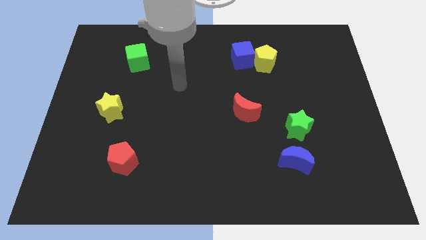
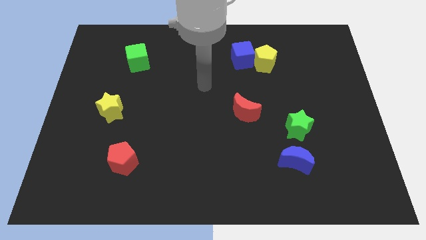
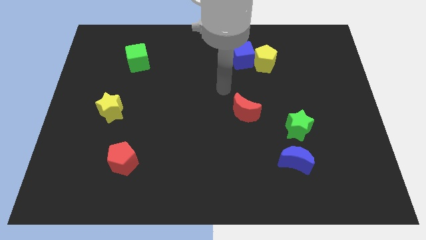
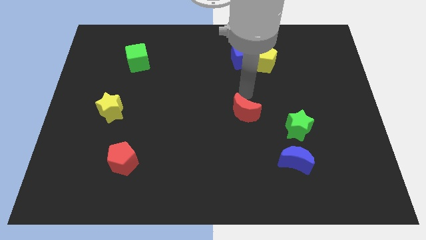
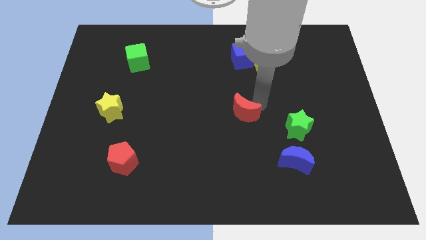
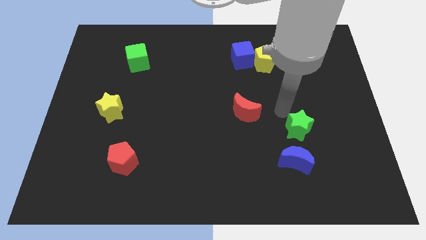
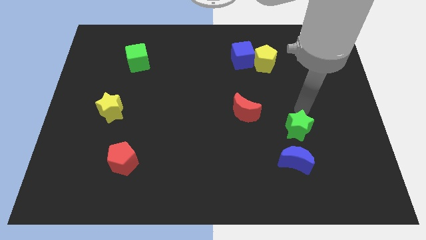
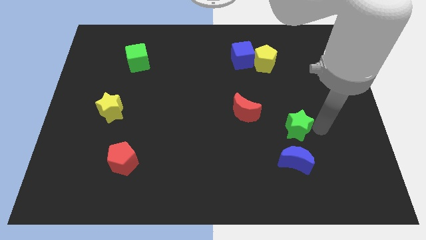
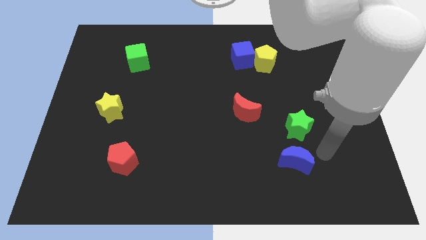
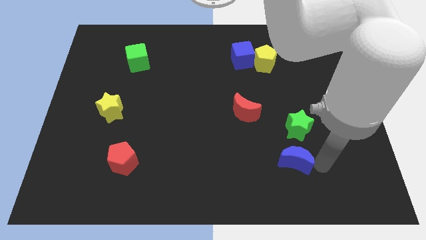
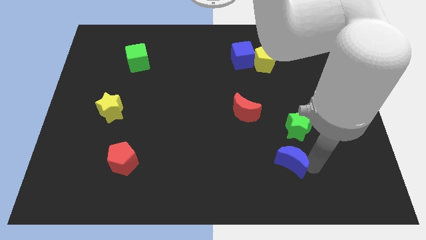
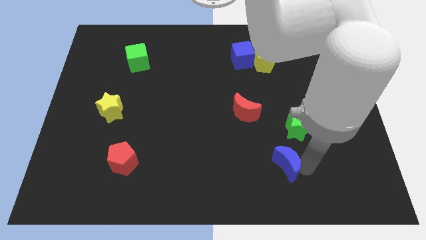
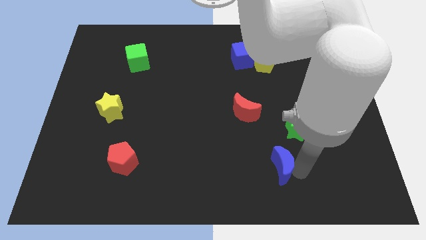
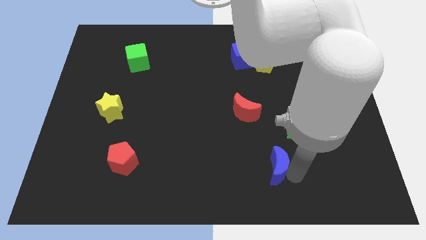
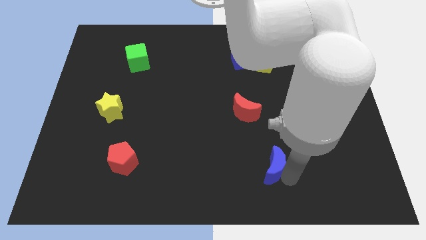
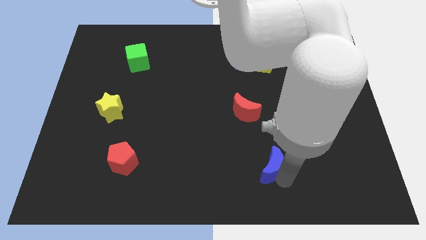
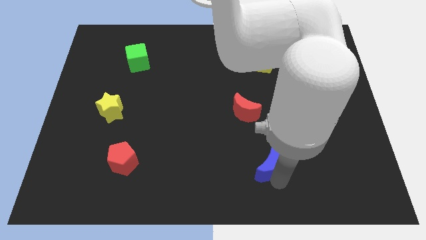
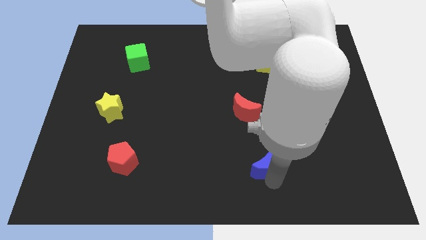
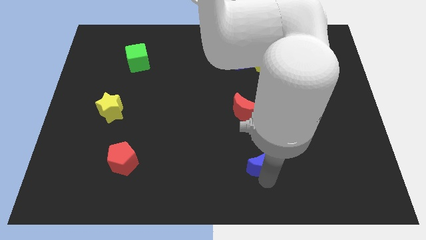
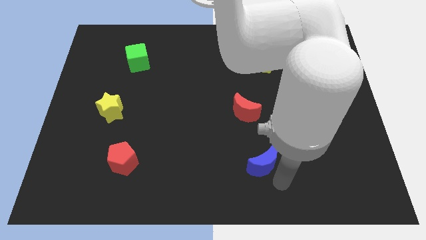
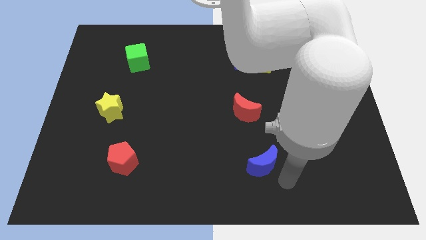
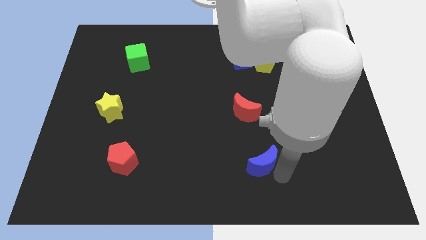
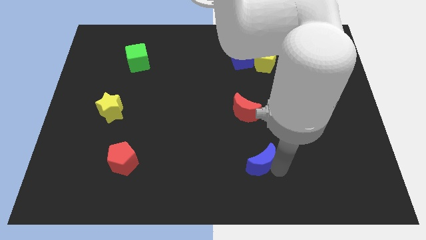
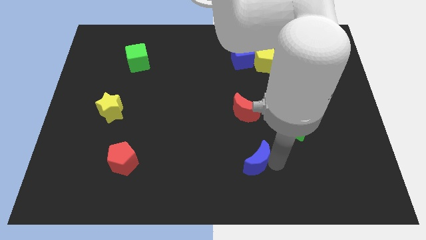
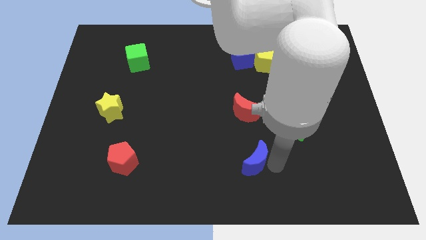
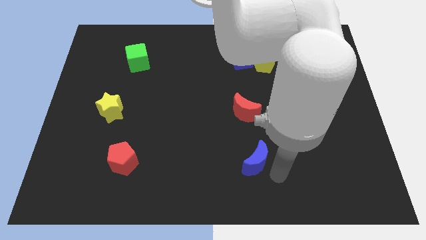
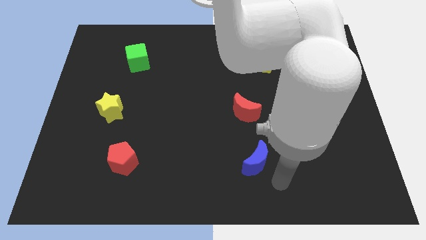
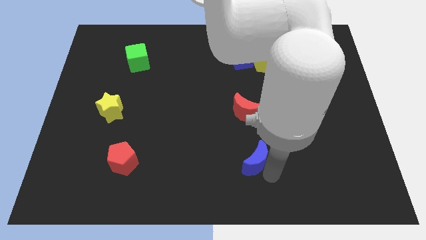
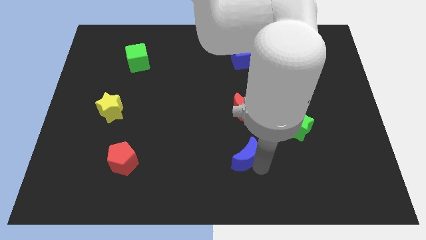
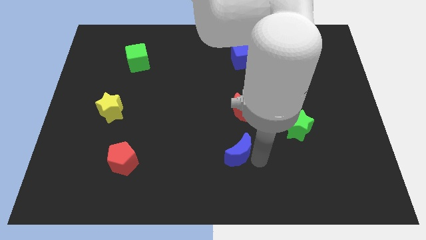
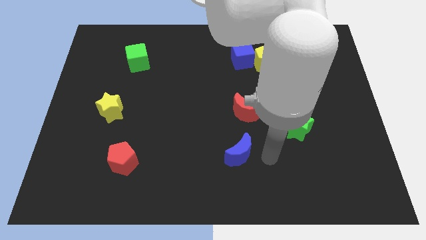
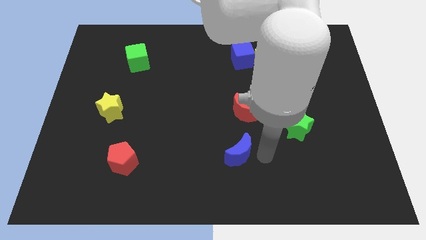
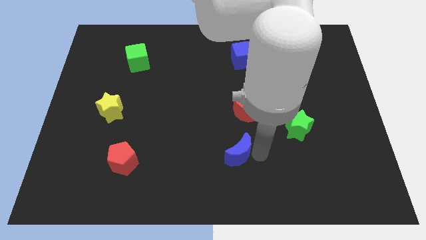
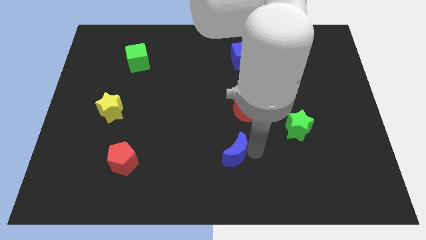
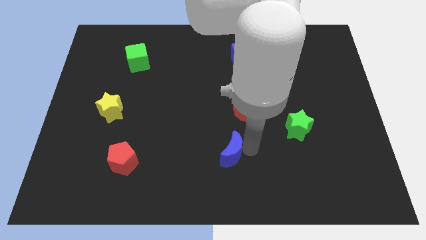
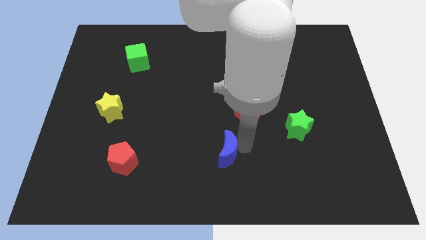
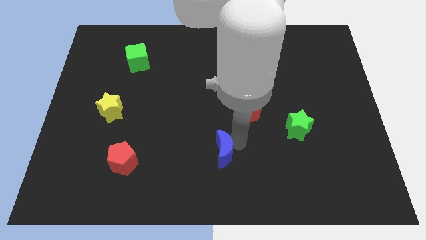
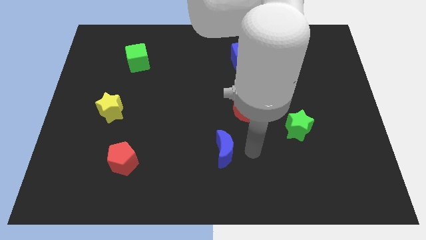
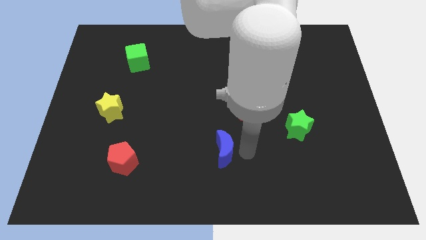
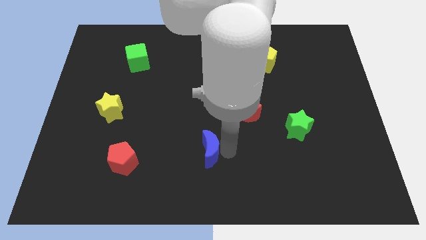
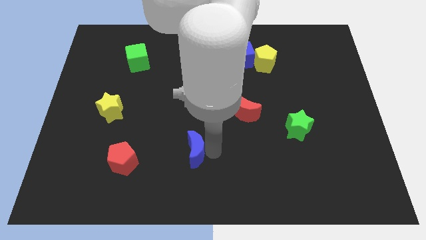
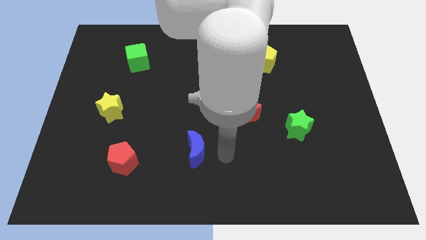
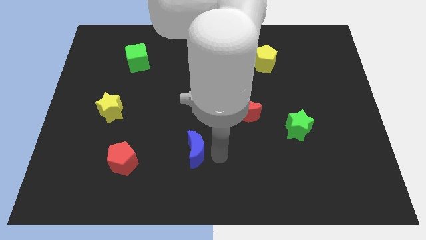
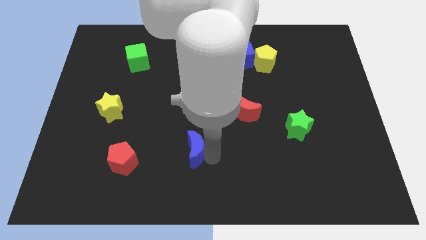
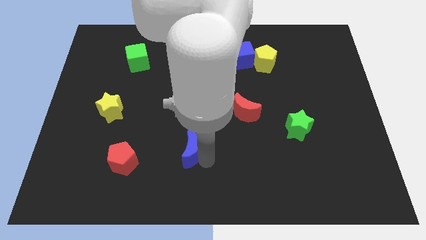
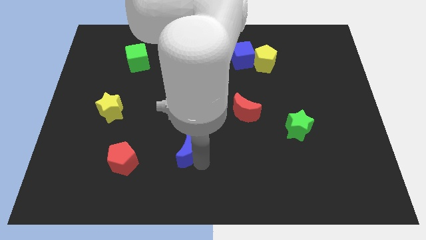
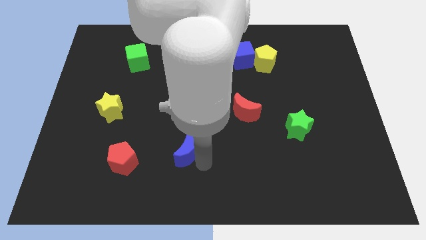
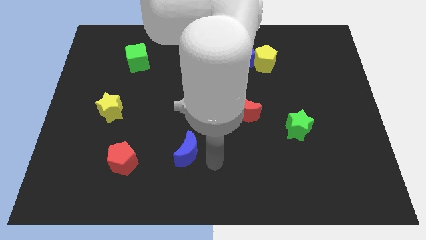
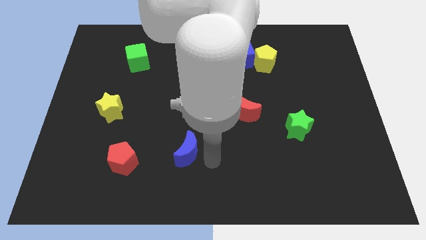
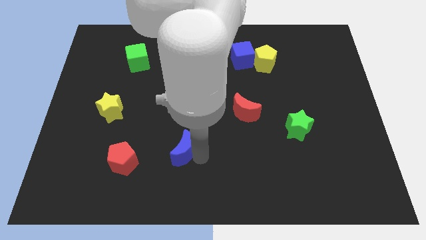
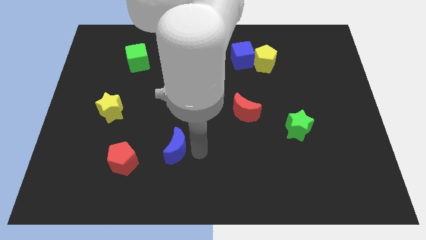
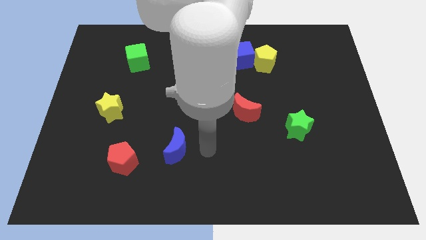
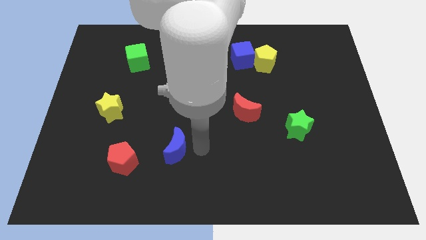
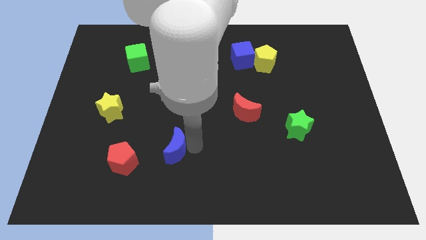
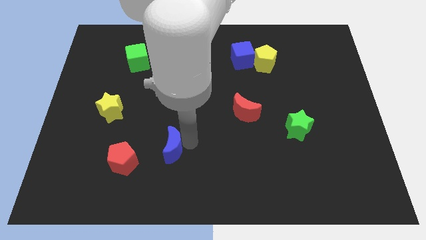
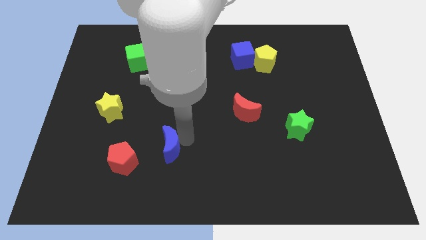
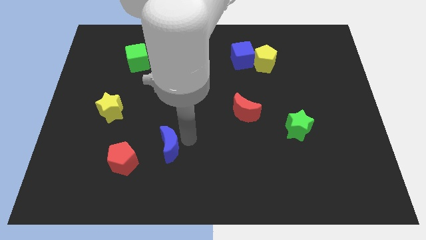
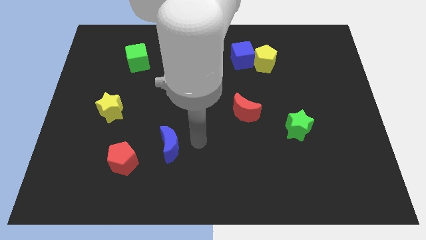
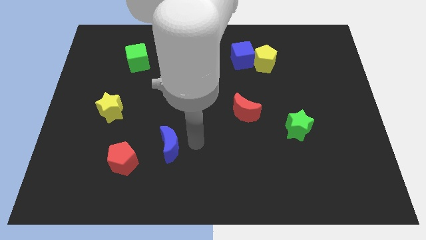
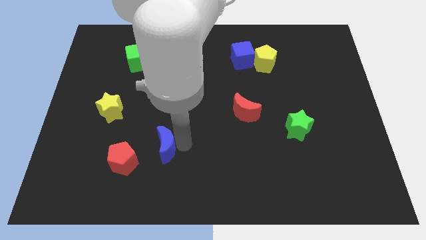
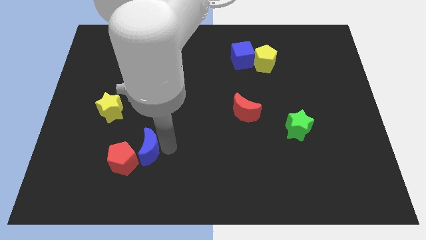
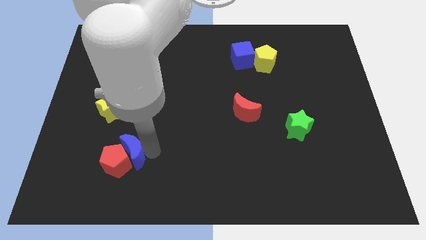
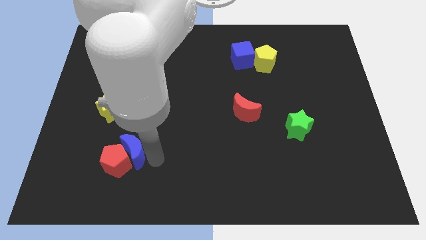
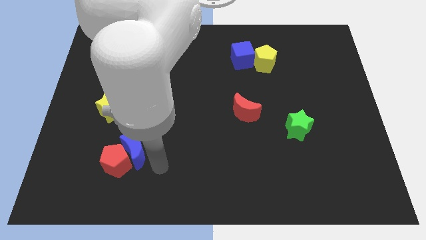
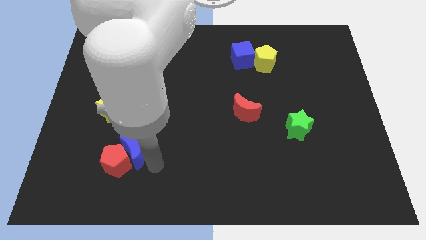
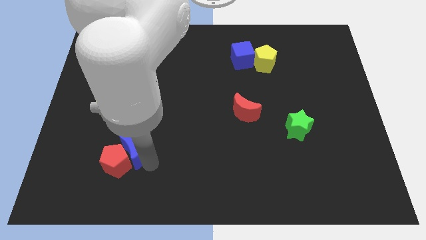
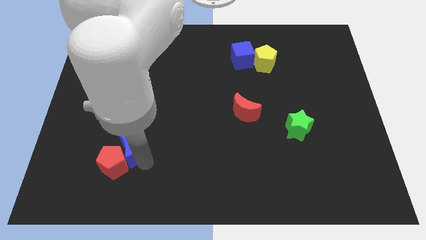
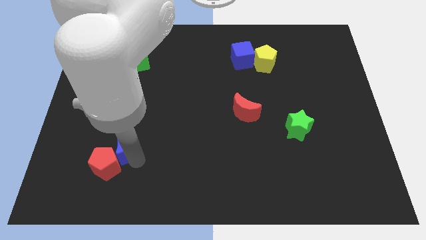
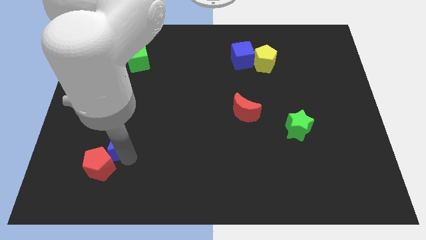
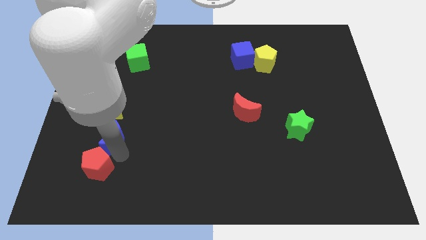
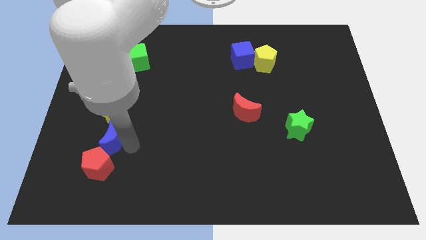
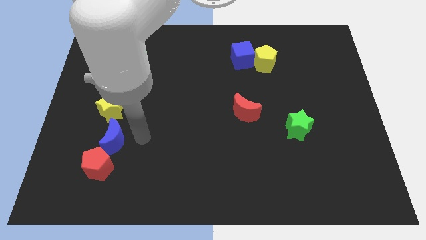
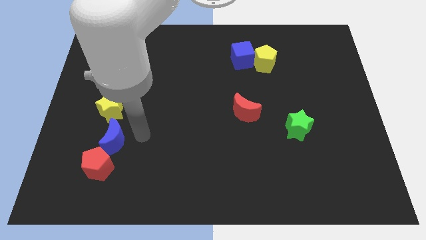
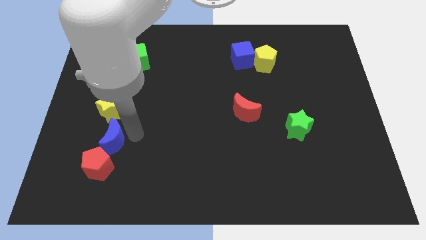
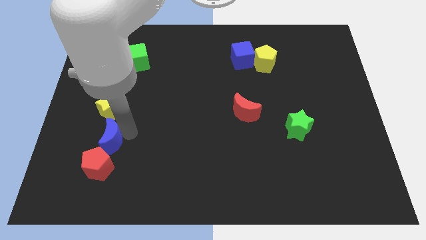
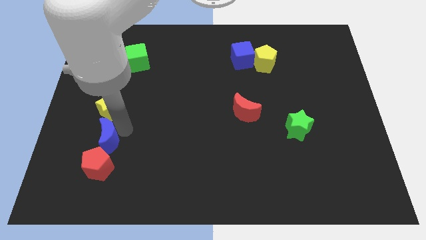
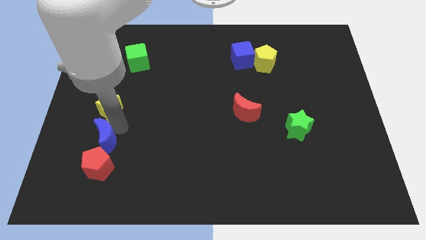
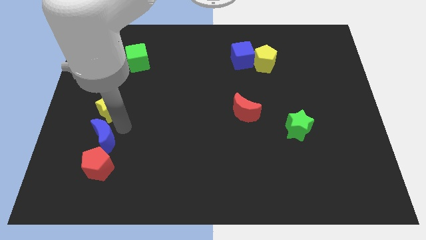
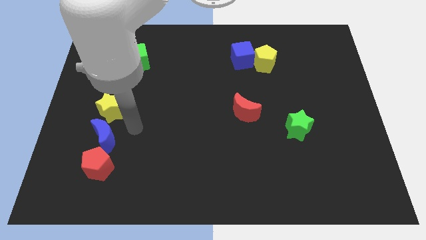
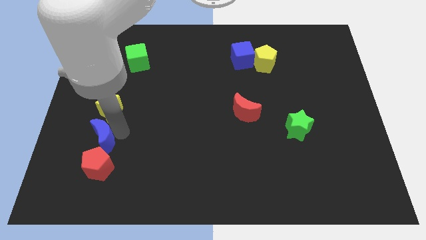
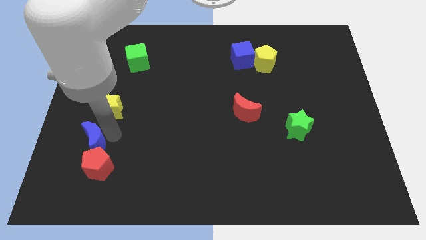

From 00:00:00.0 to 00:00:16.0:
push the blue moon to the top left of the red pentagon
